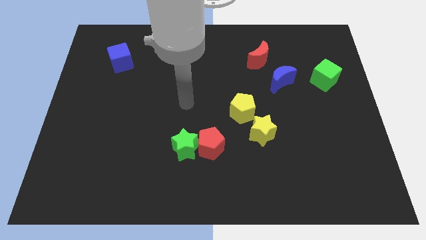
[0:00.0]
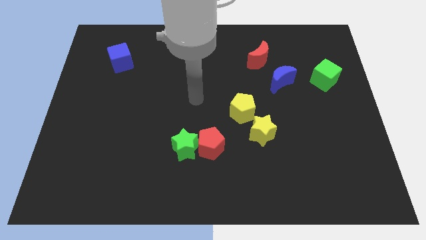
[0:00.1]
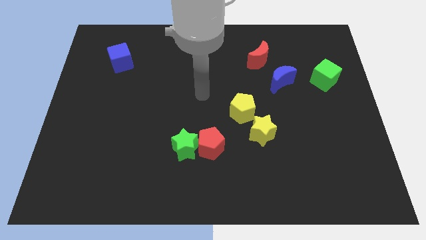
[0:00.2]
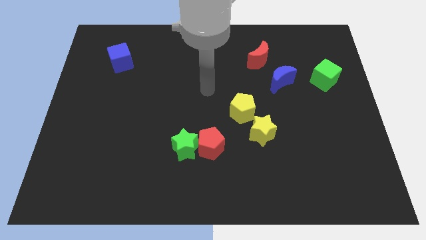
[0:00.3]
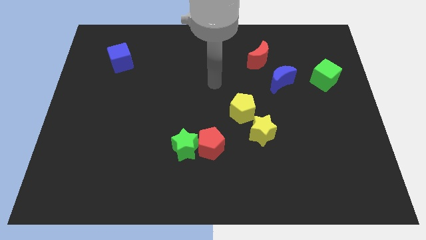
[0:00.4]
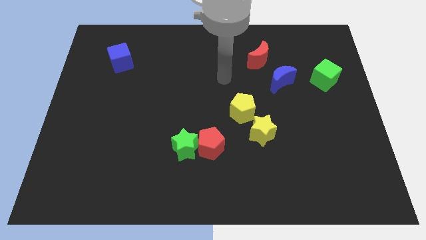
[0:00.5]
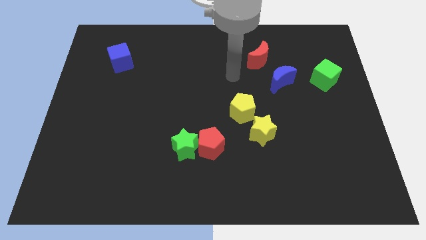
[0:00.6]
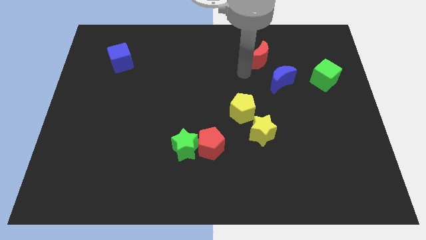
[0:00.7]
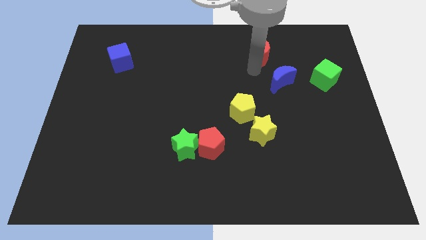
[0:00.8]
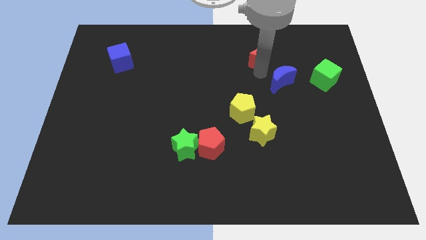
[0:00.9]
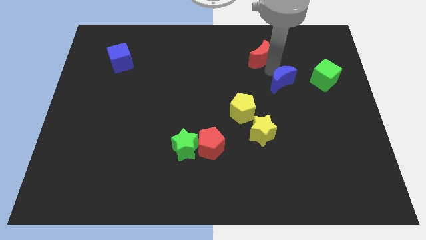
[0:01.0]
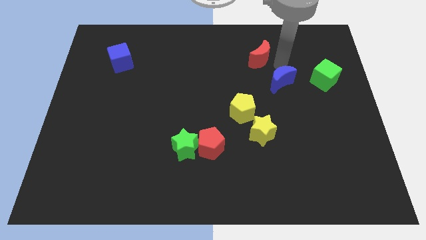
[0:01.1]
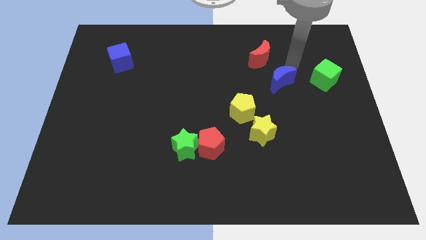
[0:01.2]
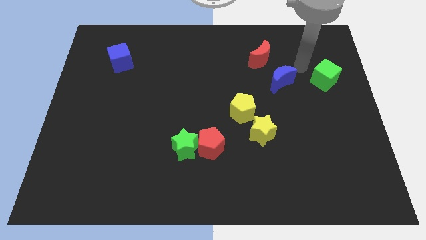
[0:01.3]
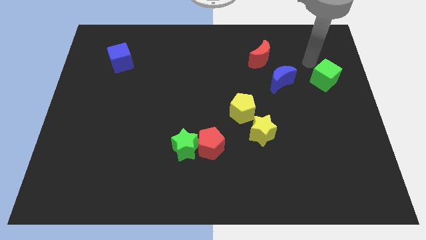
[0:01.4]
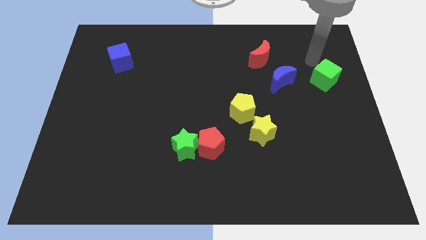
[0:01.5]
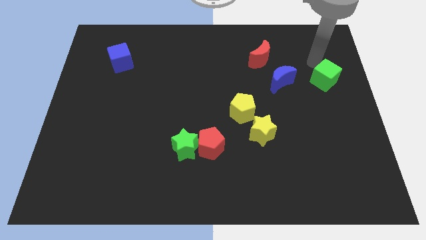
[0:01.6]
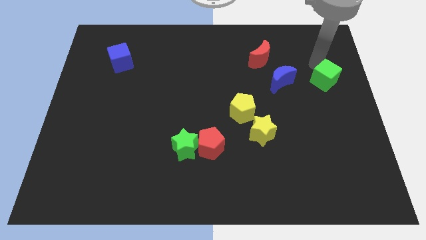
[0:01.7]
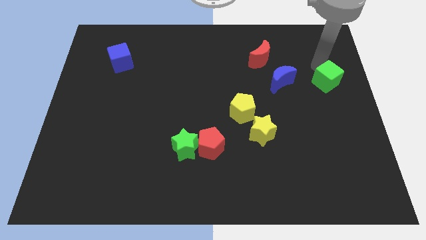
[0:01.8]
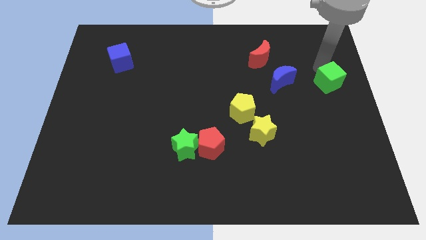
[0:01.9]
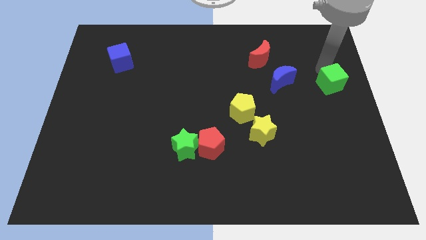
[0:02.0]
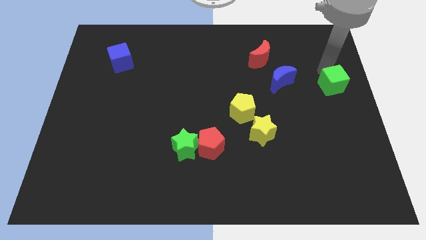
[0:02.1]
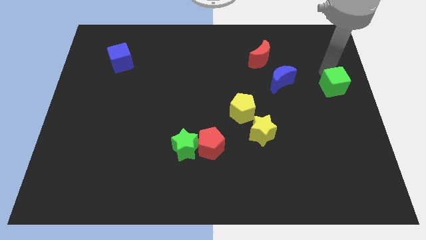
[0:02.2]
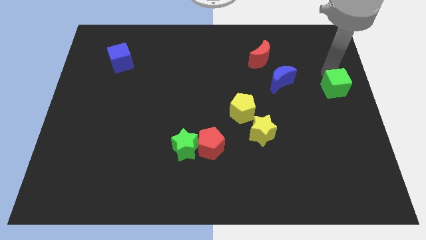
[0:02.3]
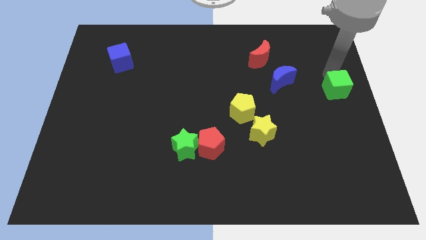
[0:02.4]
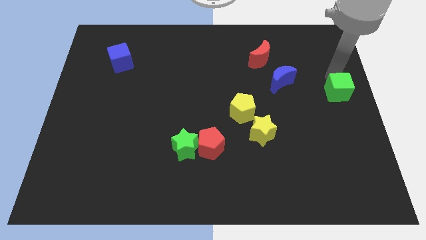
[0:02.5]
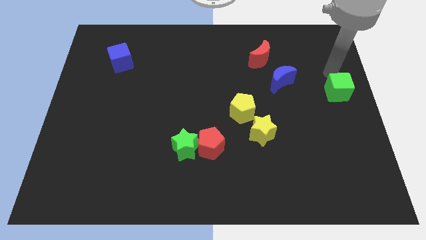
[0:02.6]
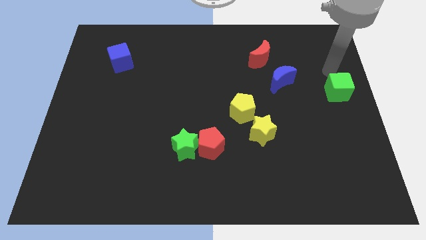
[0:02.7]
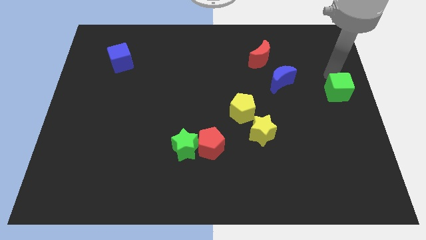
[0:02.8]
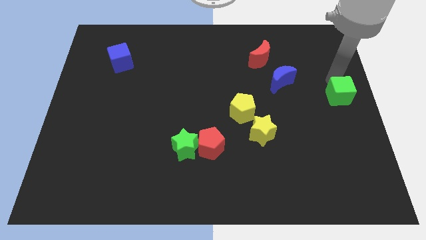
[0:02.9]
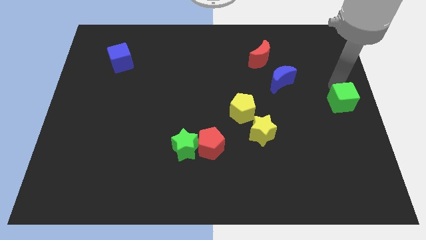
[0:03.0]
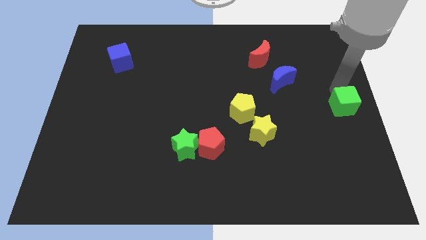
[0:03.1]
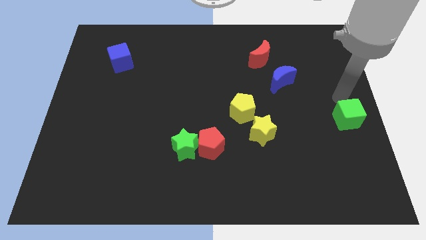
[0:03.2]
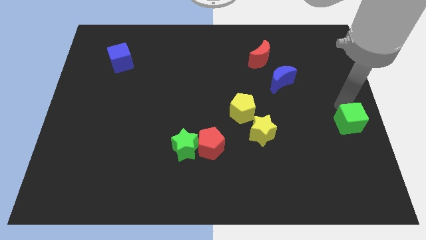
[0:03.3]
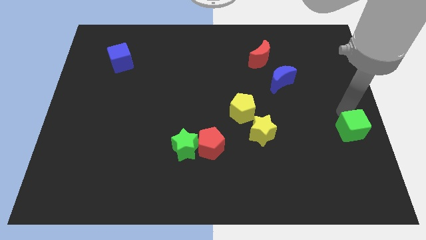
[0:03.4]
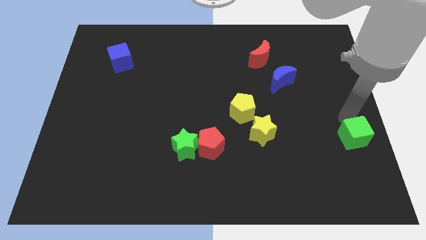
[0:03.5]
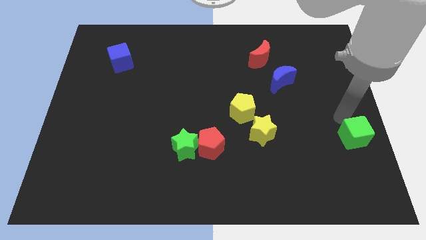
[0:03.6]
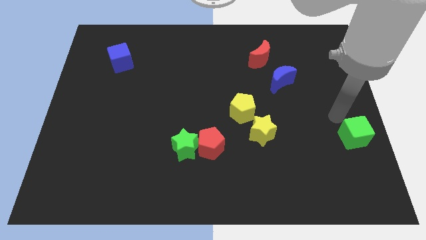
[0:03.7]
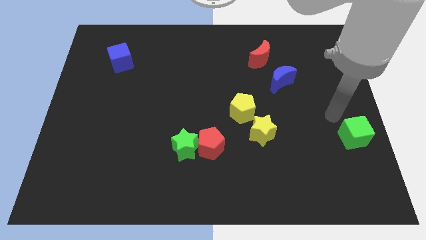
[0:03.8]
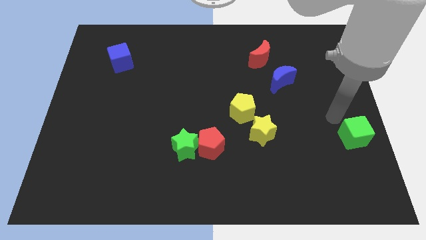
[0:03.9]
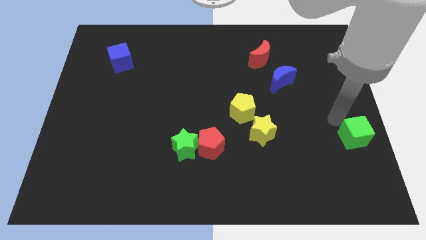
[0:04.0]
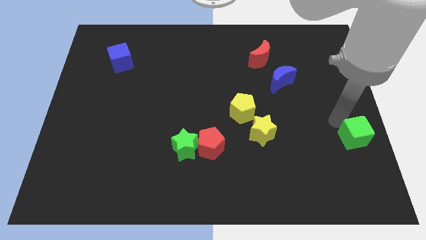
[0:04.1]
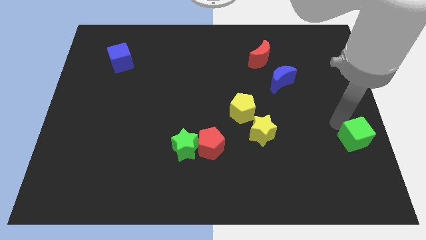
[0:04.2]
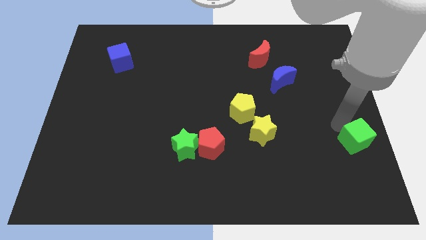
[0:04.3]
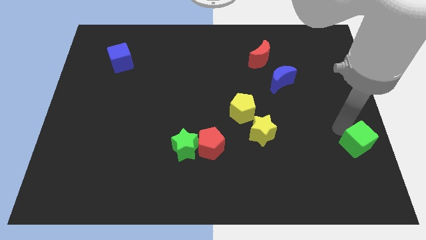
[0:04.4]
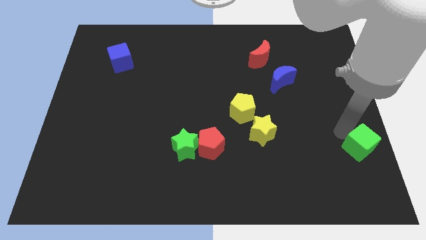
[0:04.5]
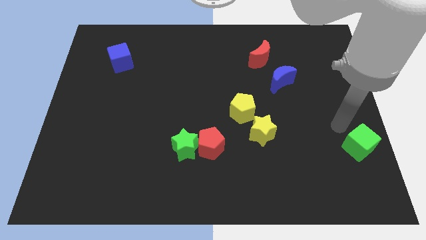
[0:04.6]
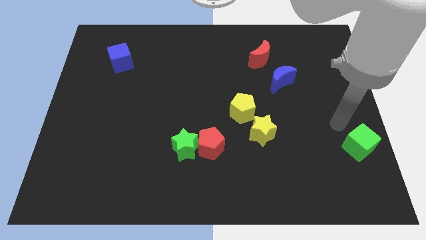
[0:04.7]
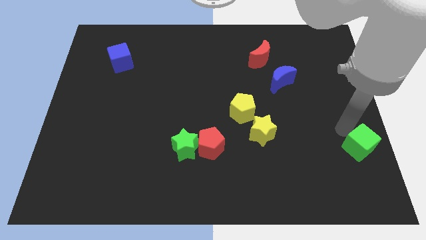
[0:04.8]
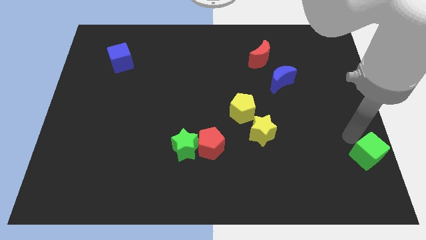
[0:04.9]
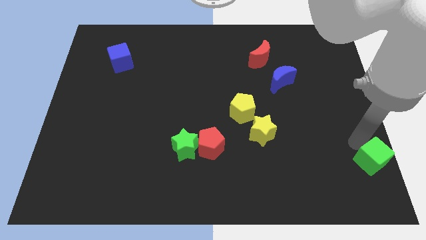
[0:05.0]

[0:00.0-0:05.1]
put the green cube to the lower right corner

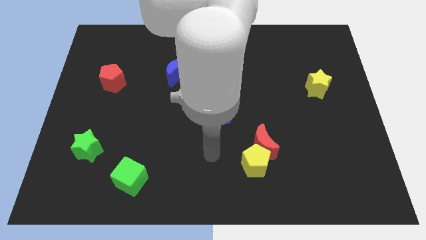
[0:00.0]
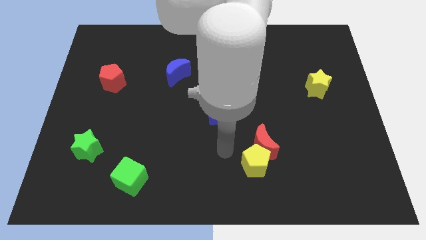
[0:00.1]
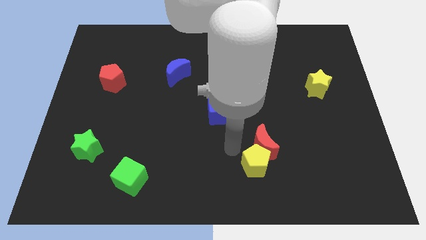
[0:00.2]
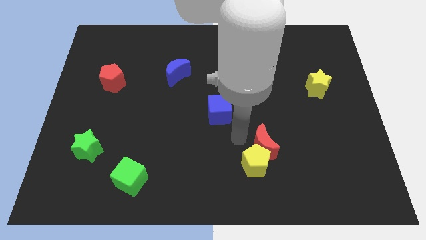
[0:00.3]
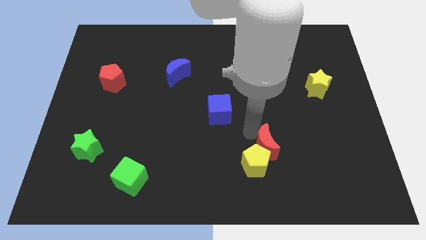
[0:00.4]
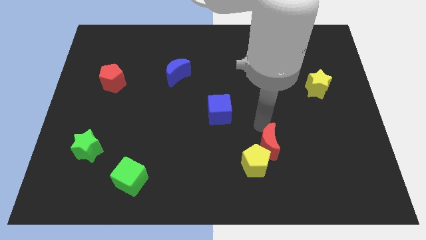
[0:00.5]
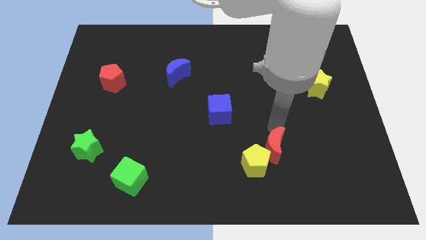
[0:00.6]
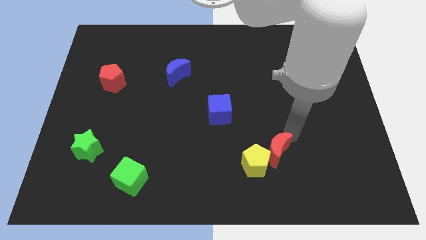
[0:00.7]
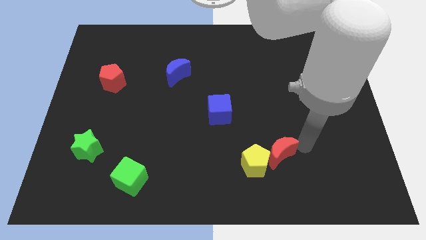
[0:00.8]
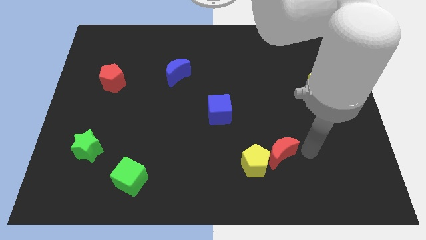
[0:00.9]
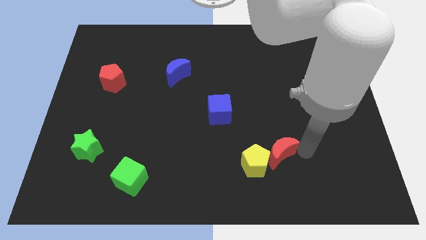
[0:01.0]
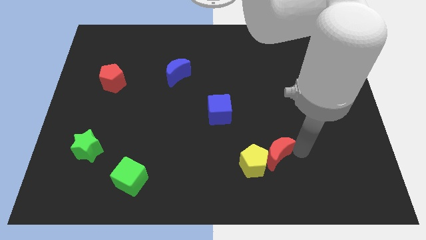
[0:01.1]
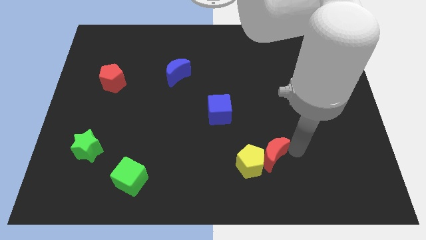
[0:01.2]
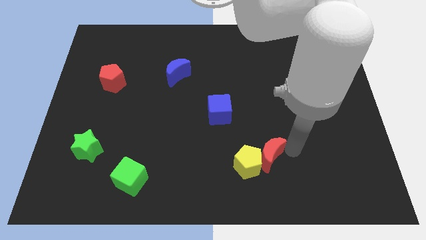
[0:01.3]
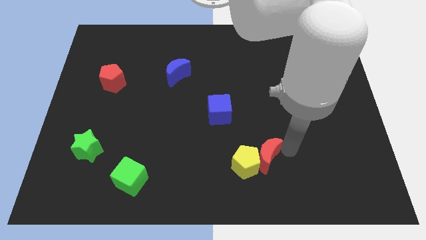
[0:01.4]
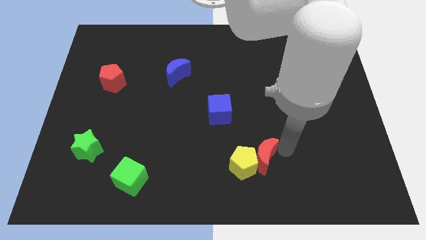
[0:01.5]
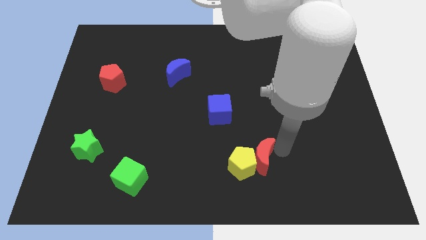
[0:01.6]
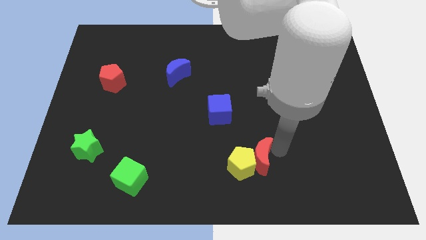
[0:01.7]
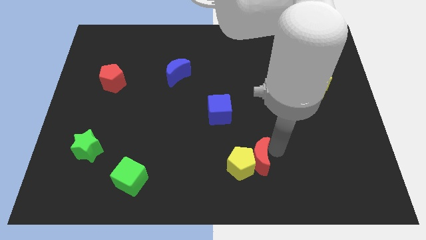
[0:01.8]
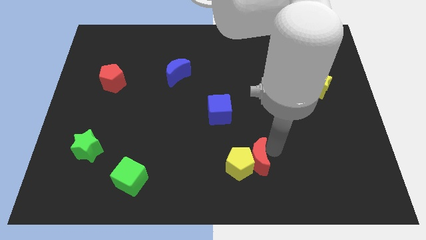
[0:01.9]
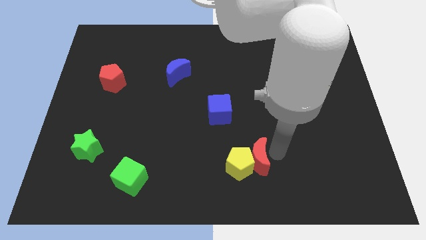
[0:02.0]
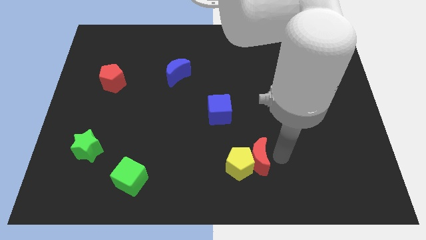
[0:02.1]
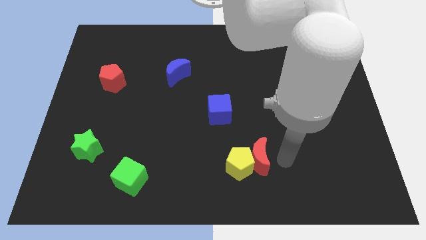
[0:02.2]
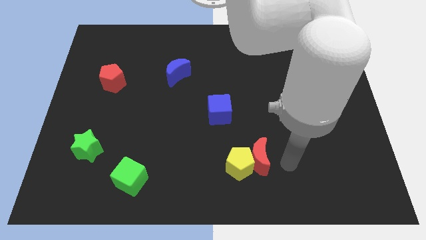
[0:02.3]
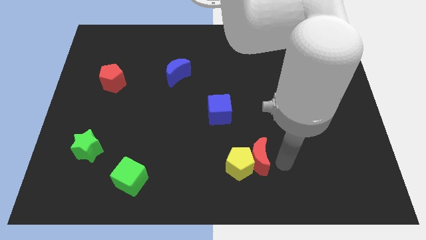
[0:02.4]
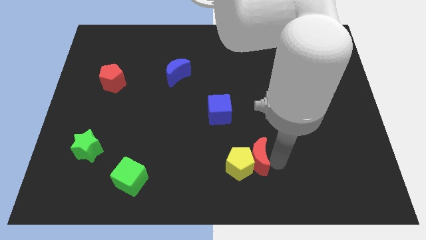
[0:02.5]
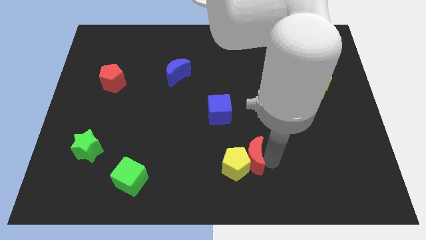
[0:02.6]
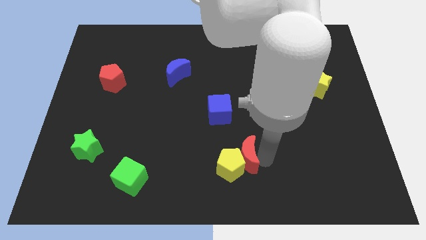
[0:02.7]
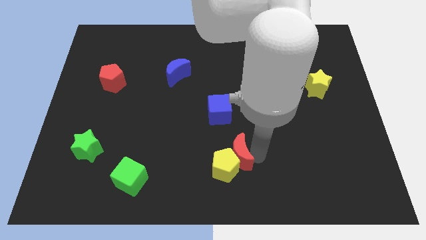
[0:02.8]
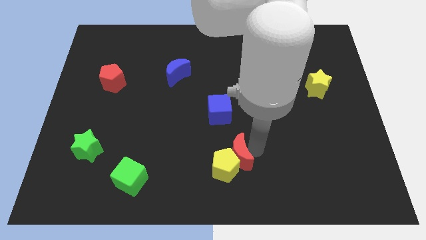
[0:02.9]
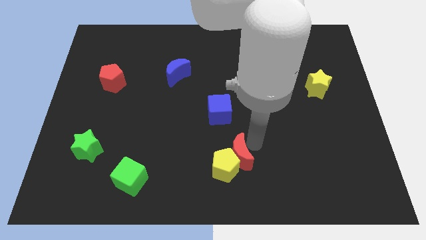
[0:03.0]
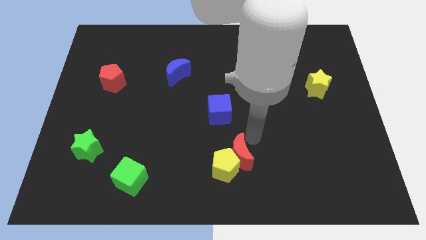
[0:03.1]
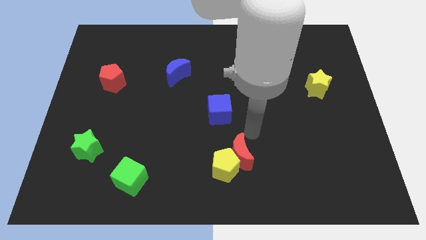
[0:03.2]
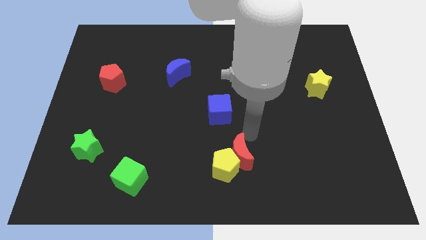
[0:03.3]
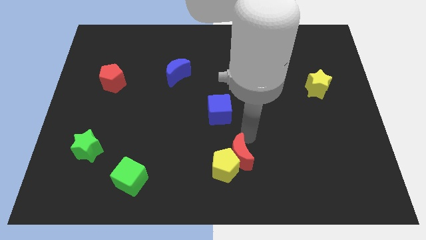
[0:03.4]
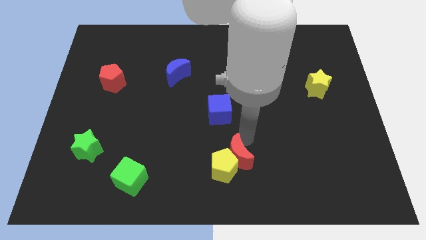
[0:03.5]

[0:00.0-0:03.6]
put the red moon to the bottom
